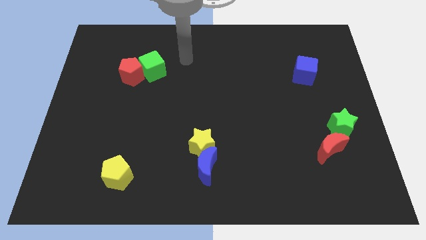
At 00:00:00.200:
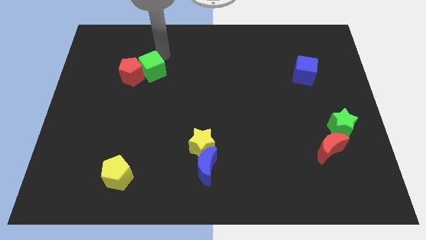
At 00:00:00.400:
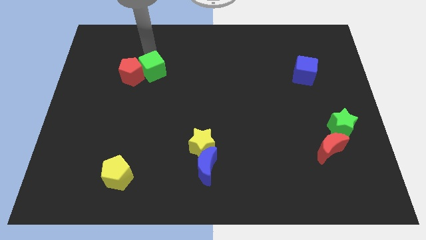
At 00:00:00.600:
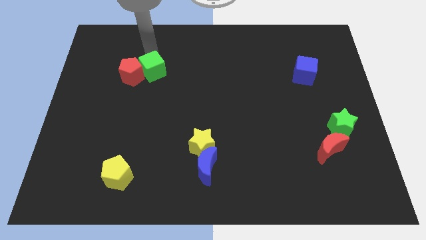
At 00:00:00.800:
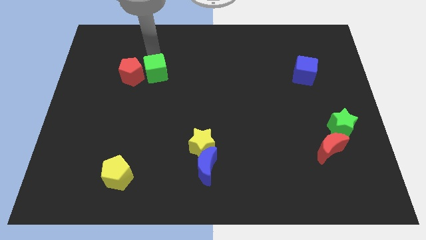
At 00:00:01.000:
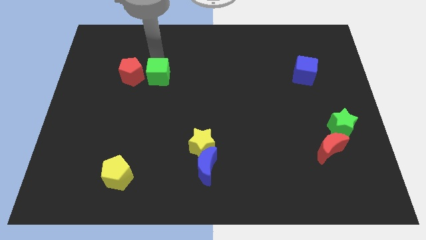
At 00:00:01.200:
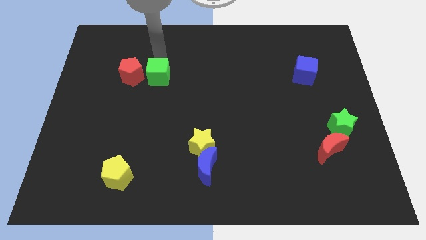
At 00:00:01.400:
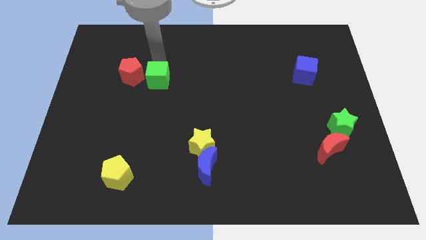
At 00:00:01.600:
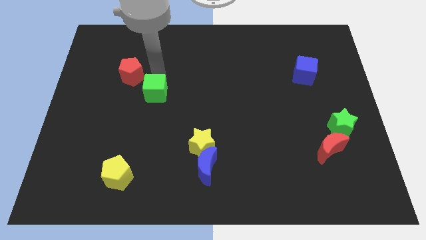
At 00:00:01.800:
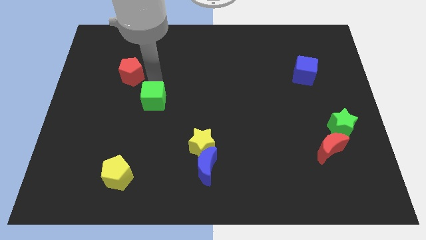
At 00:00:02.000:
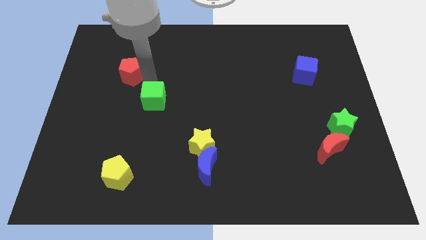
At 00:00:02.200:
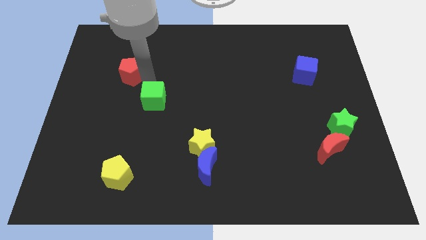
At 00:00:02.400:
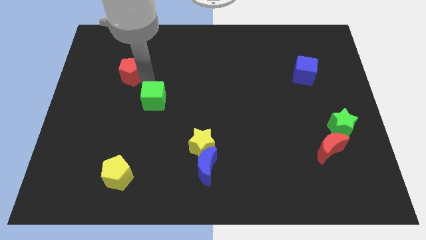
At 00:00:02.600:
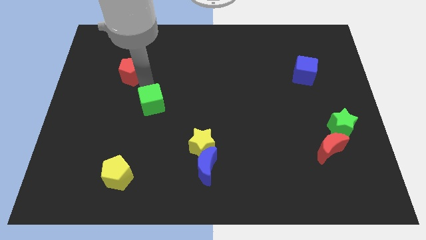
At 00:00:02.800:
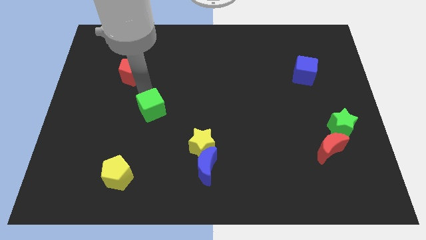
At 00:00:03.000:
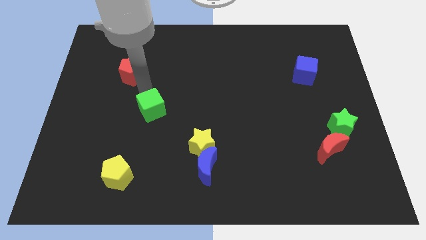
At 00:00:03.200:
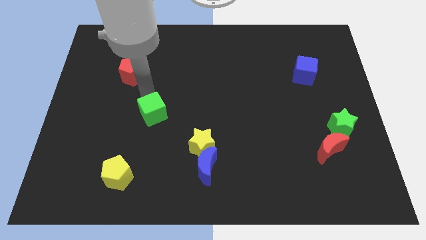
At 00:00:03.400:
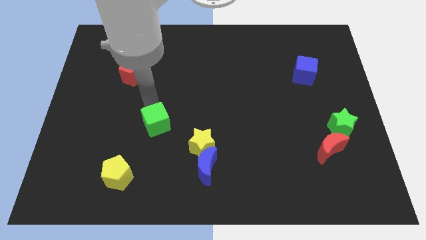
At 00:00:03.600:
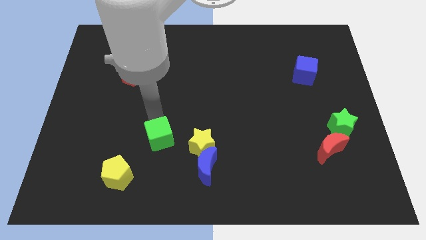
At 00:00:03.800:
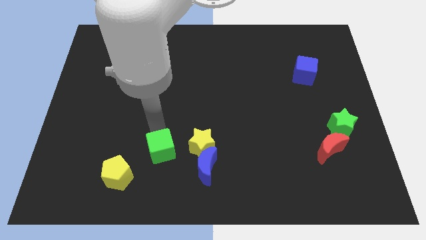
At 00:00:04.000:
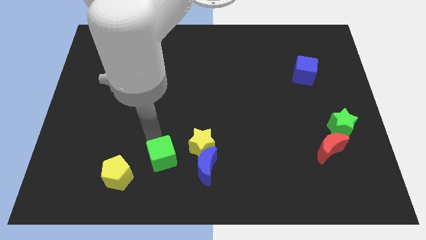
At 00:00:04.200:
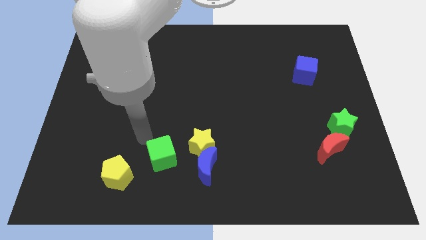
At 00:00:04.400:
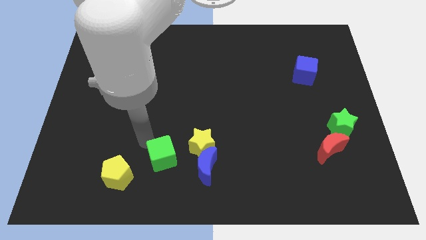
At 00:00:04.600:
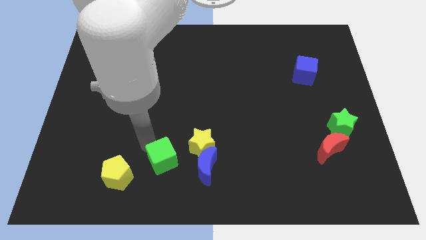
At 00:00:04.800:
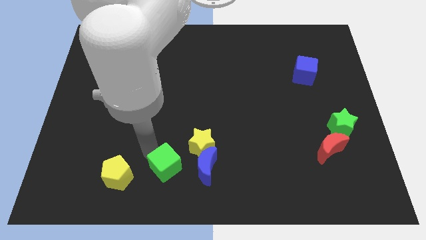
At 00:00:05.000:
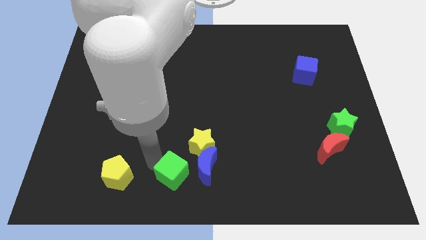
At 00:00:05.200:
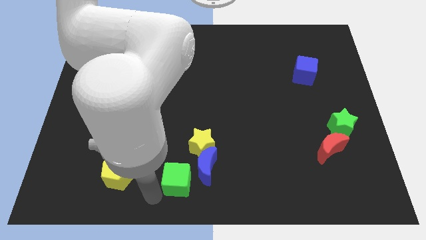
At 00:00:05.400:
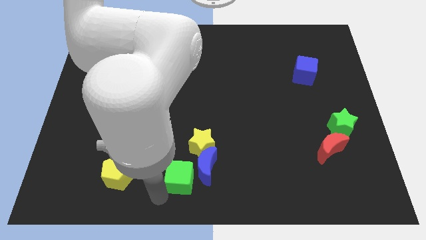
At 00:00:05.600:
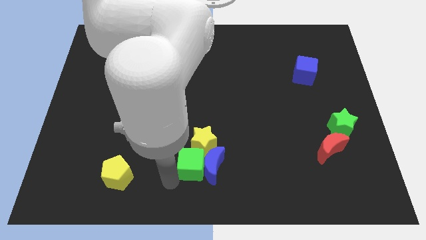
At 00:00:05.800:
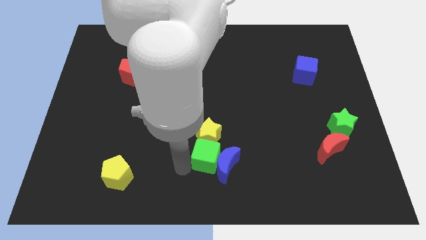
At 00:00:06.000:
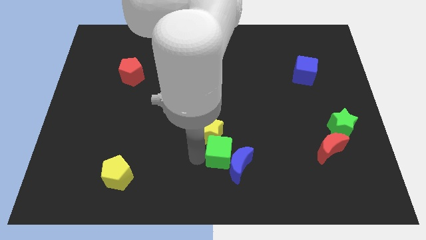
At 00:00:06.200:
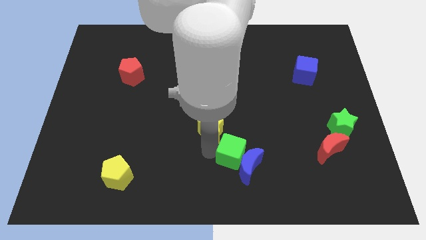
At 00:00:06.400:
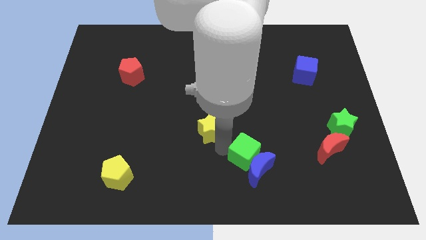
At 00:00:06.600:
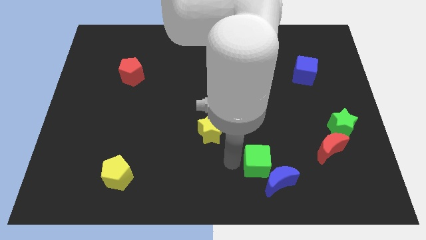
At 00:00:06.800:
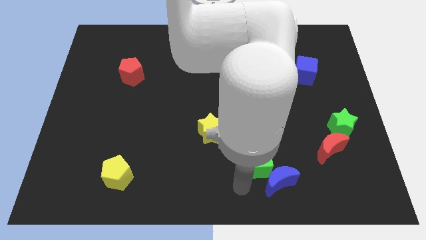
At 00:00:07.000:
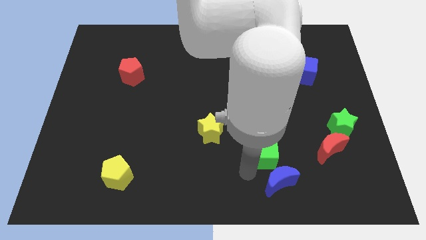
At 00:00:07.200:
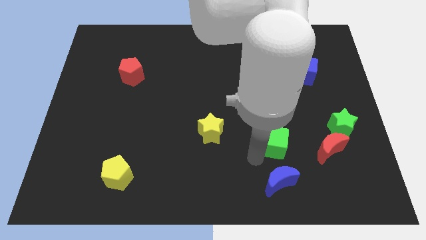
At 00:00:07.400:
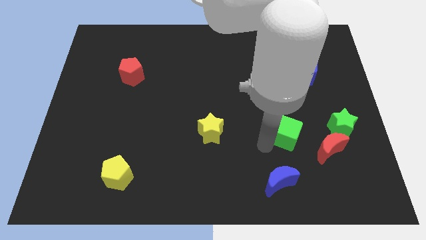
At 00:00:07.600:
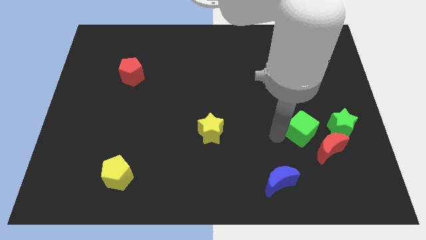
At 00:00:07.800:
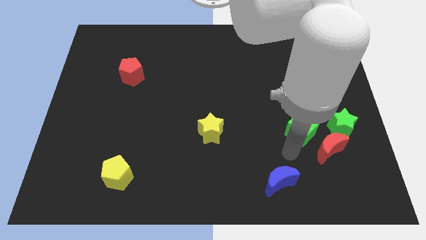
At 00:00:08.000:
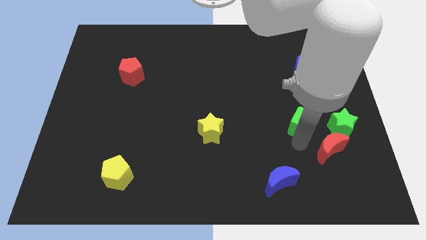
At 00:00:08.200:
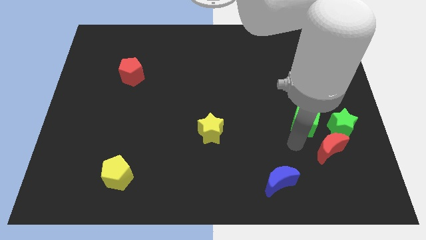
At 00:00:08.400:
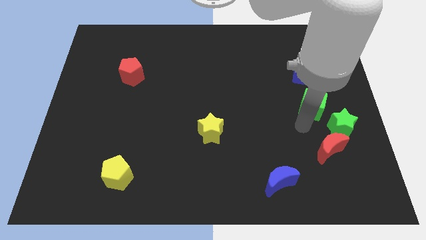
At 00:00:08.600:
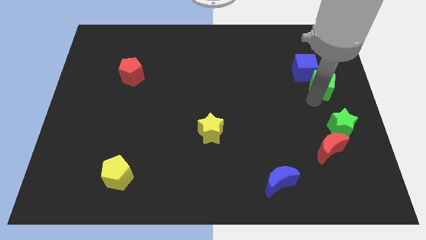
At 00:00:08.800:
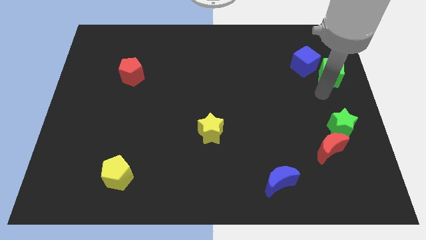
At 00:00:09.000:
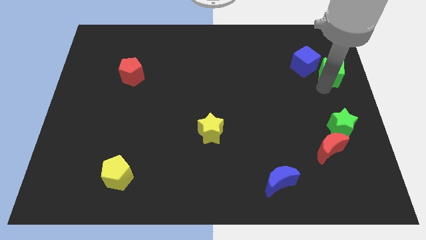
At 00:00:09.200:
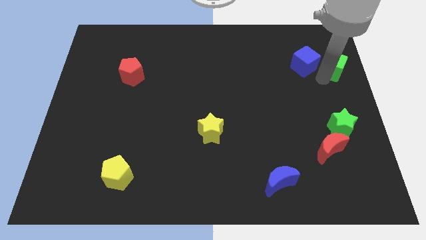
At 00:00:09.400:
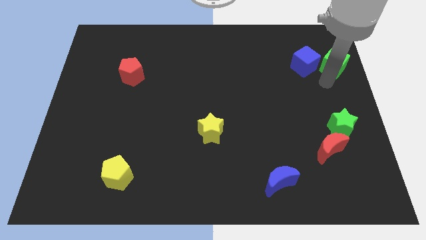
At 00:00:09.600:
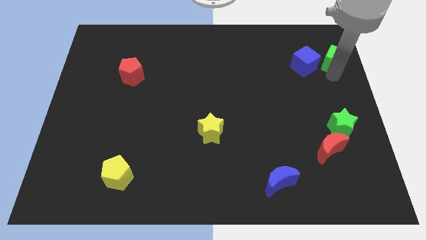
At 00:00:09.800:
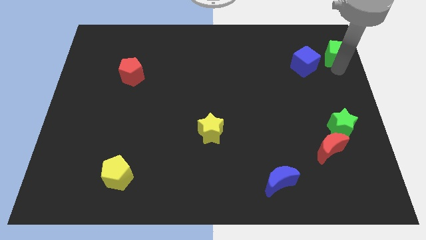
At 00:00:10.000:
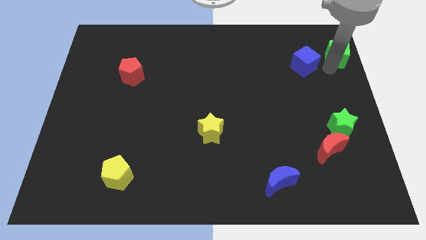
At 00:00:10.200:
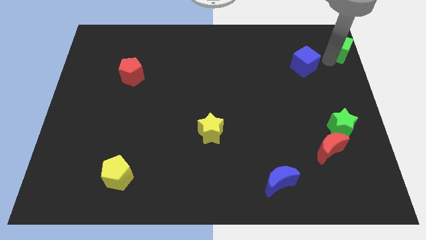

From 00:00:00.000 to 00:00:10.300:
put the green cube to the top right

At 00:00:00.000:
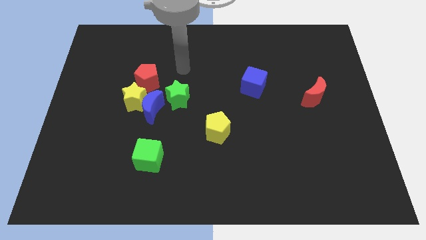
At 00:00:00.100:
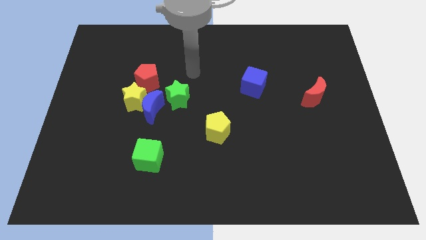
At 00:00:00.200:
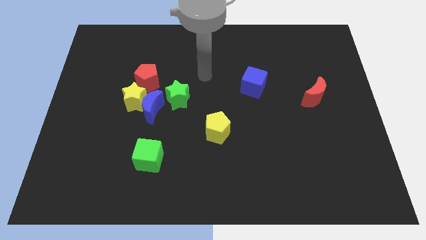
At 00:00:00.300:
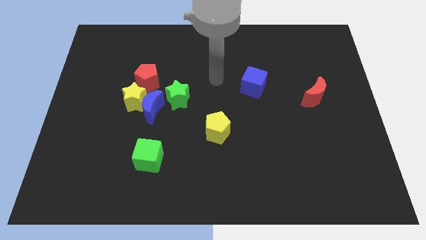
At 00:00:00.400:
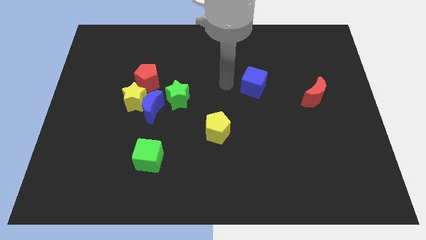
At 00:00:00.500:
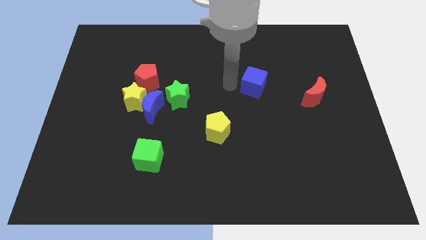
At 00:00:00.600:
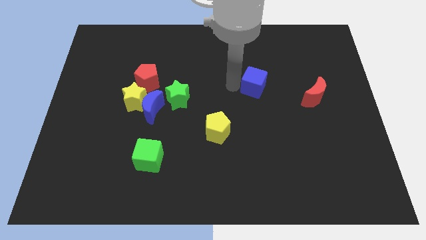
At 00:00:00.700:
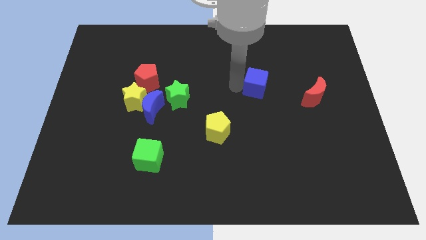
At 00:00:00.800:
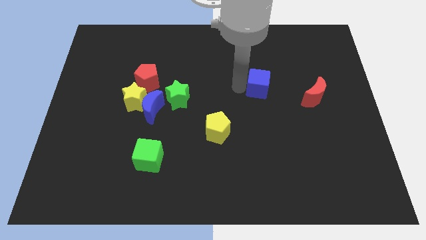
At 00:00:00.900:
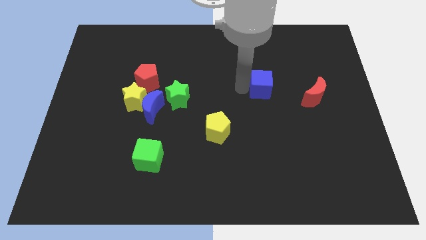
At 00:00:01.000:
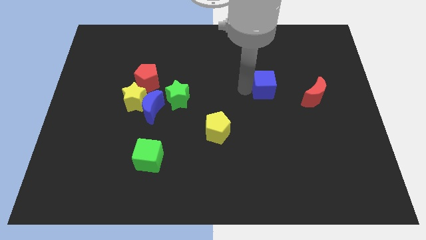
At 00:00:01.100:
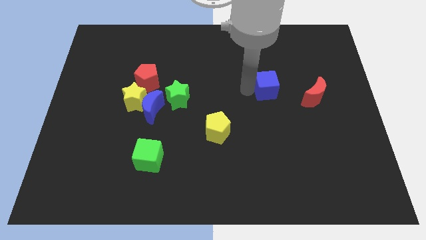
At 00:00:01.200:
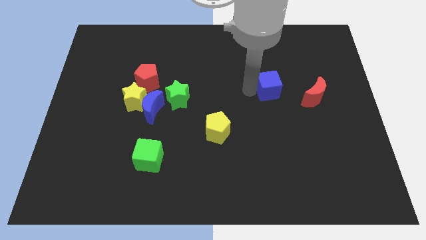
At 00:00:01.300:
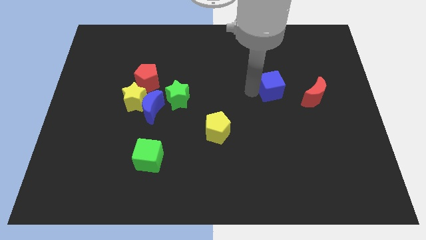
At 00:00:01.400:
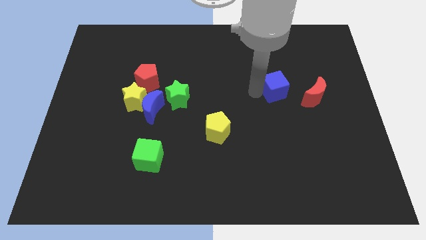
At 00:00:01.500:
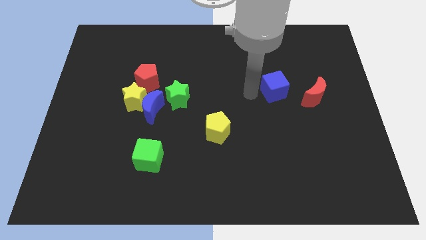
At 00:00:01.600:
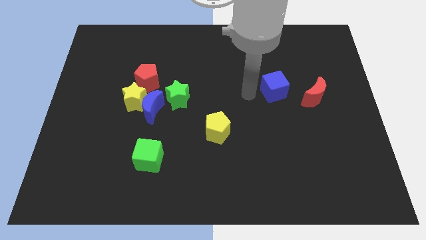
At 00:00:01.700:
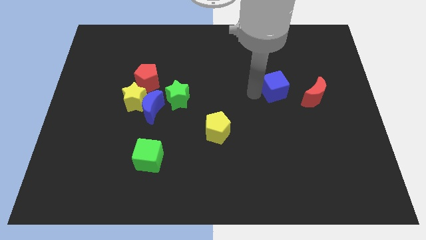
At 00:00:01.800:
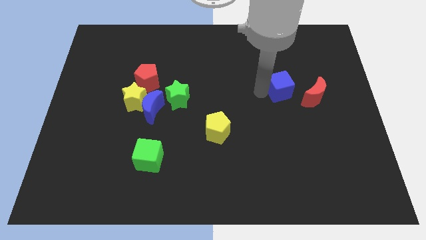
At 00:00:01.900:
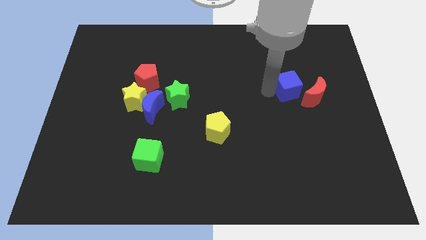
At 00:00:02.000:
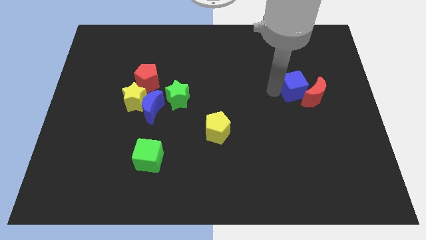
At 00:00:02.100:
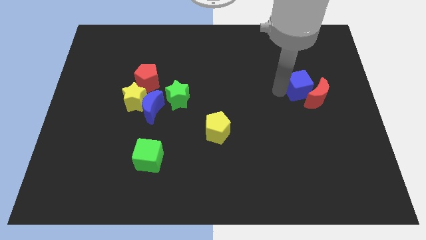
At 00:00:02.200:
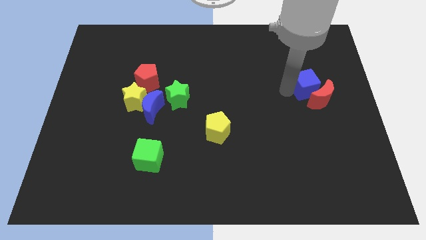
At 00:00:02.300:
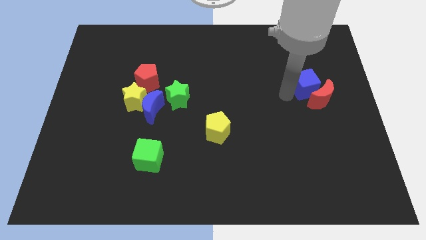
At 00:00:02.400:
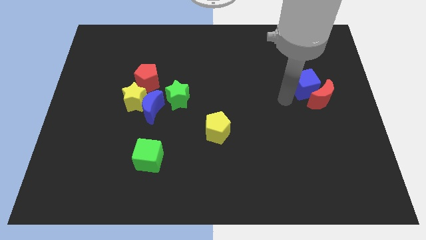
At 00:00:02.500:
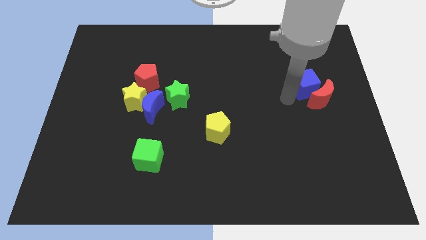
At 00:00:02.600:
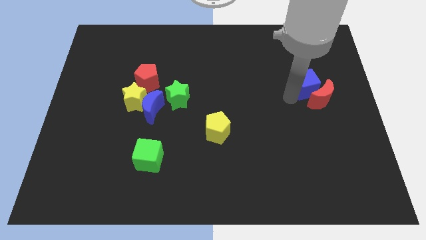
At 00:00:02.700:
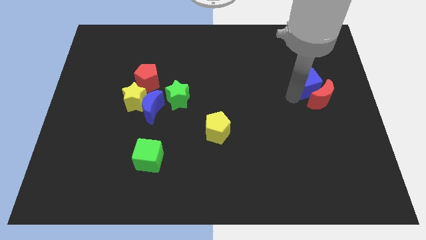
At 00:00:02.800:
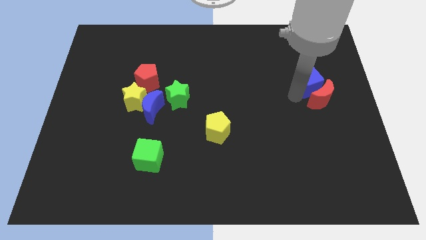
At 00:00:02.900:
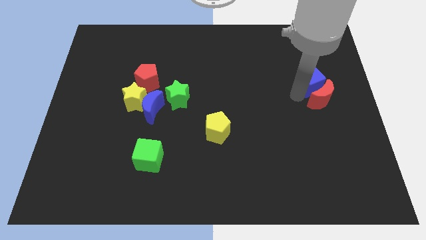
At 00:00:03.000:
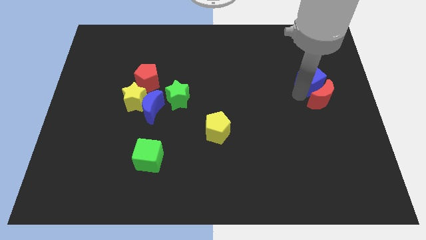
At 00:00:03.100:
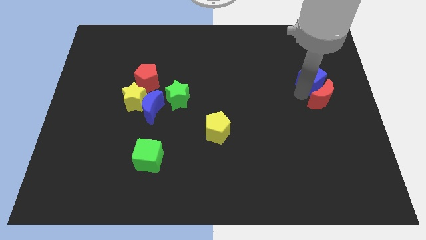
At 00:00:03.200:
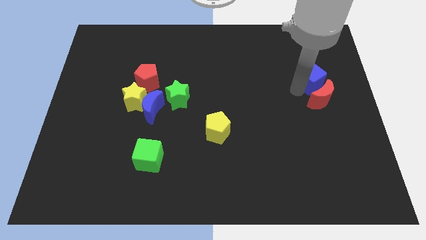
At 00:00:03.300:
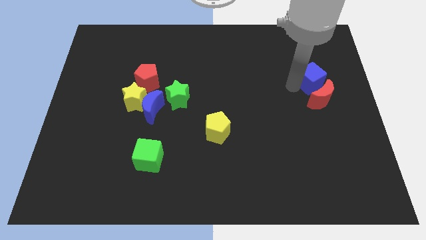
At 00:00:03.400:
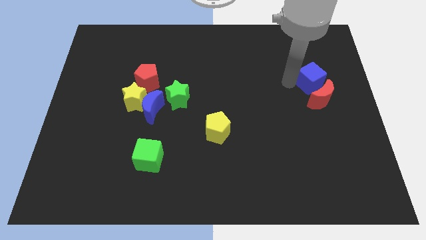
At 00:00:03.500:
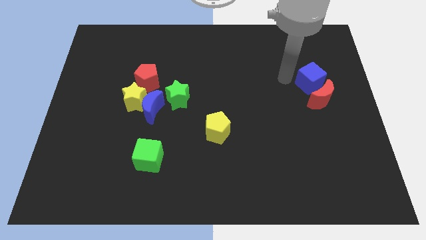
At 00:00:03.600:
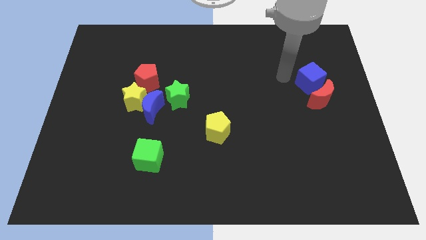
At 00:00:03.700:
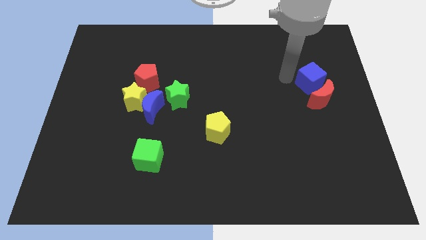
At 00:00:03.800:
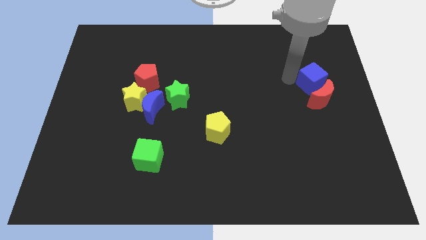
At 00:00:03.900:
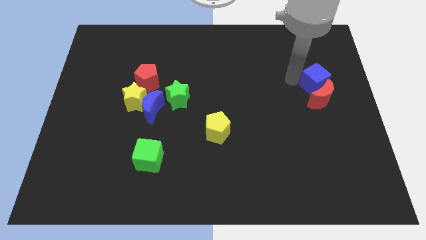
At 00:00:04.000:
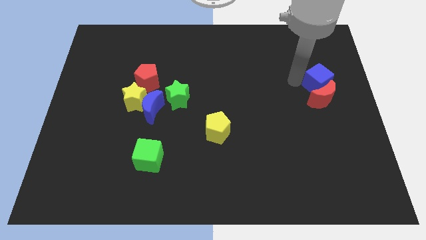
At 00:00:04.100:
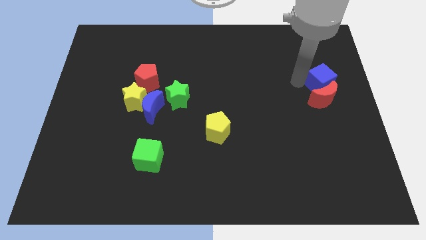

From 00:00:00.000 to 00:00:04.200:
push the blue cube to the center right
